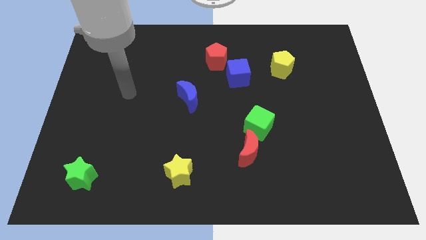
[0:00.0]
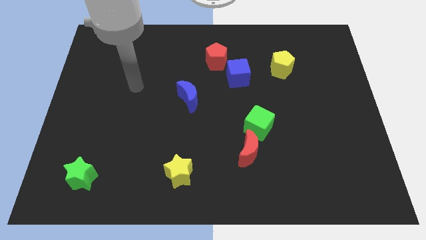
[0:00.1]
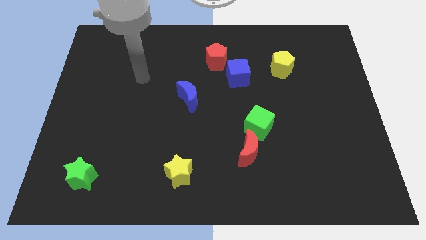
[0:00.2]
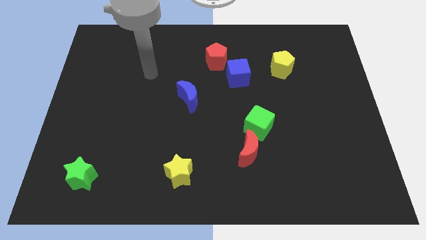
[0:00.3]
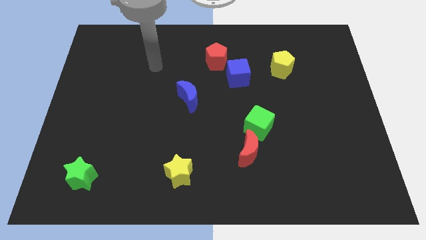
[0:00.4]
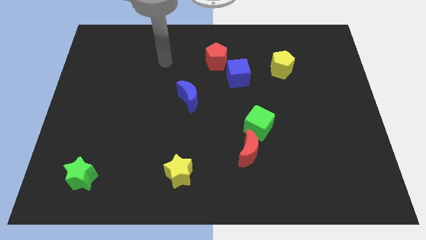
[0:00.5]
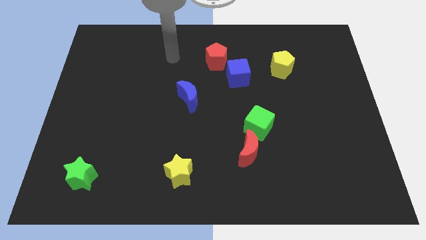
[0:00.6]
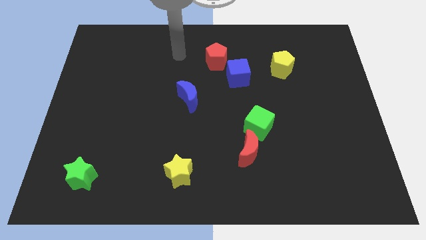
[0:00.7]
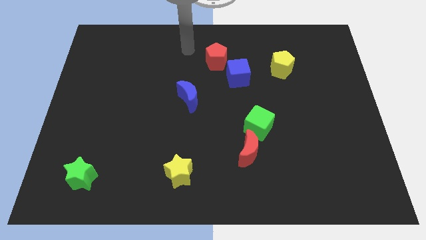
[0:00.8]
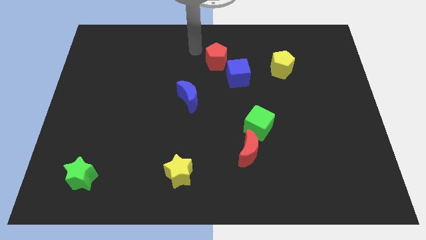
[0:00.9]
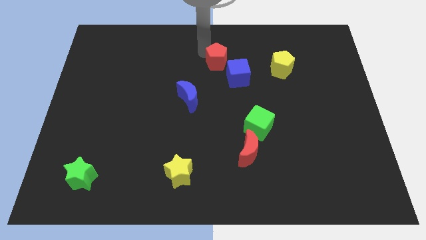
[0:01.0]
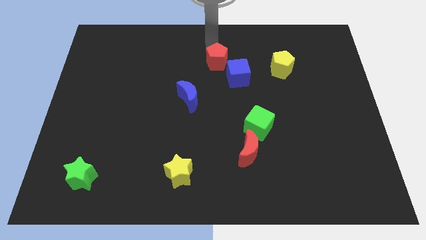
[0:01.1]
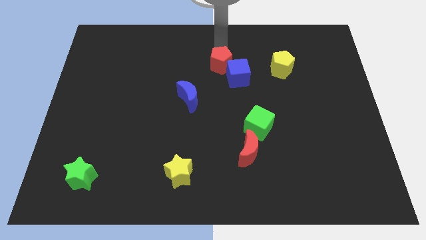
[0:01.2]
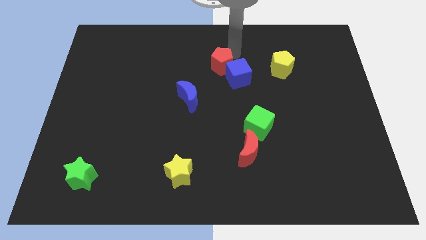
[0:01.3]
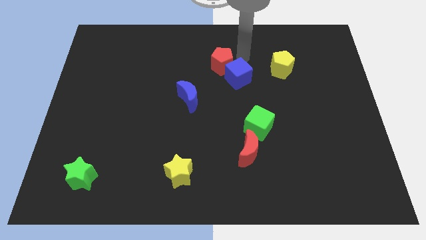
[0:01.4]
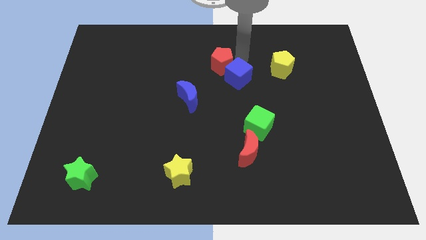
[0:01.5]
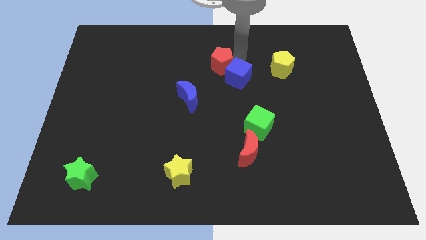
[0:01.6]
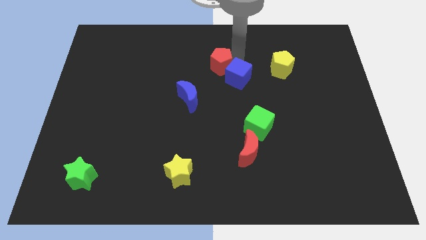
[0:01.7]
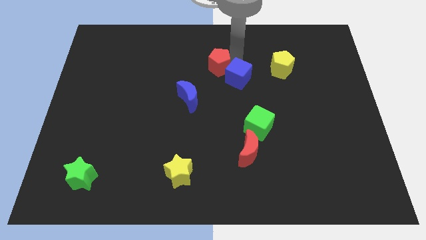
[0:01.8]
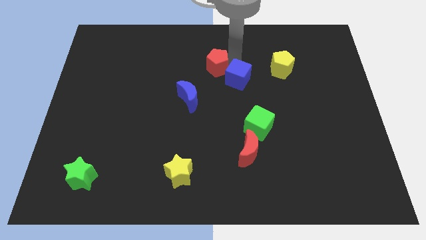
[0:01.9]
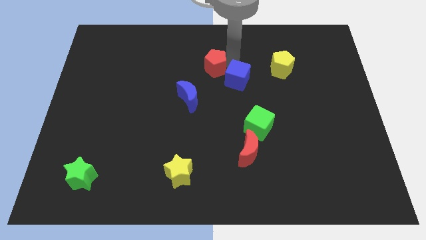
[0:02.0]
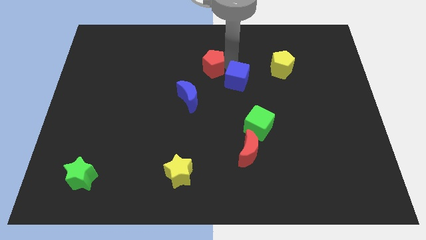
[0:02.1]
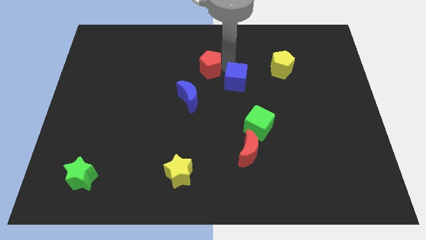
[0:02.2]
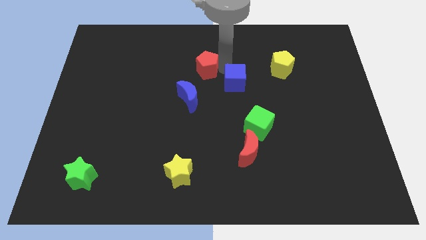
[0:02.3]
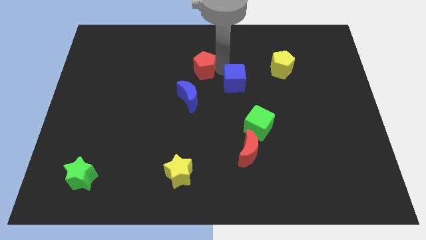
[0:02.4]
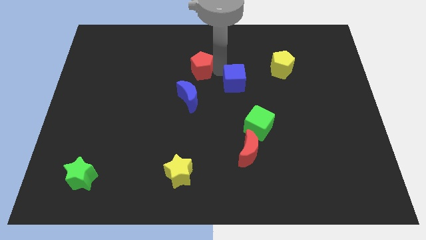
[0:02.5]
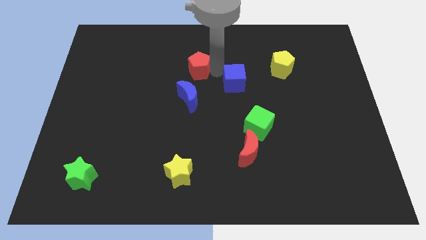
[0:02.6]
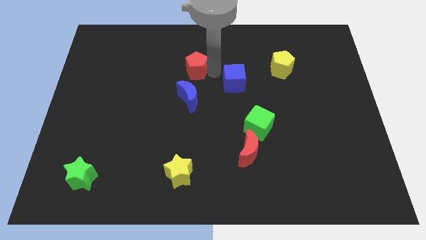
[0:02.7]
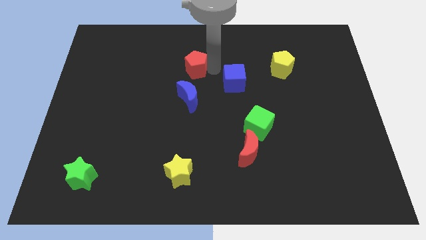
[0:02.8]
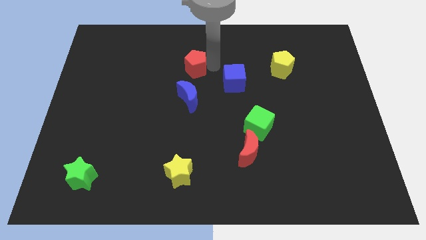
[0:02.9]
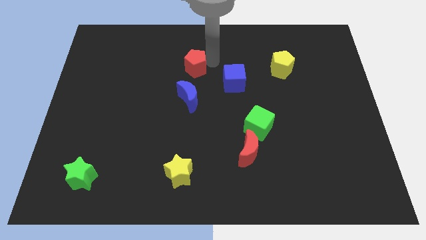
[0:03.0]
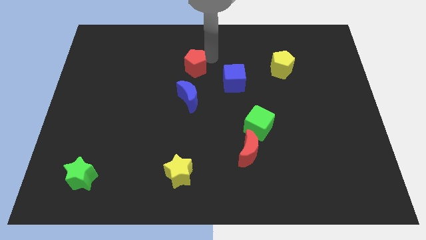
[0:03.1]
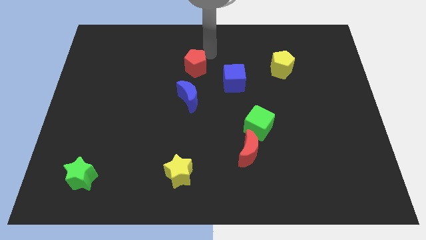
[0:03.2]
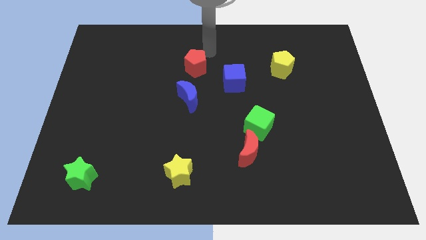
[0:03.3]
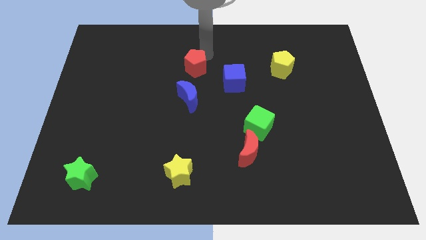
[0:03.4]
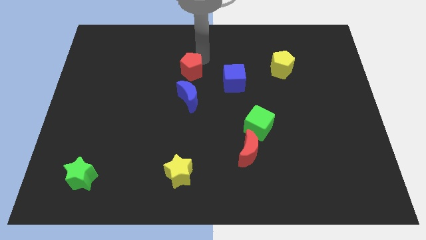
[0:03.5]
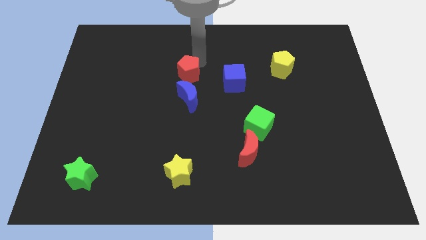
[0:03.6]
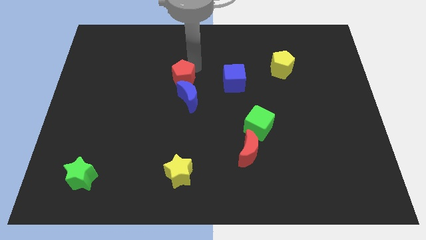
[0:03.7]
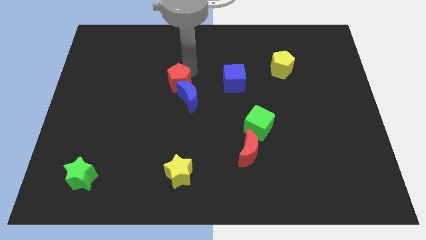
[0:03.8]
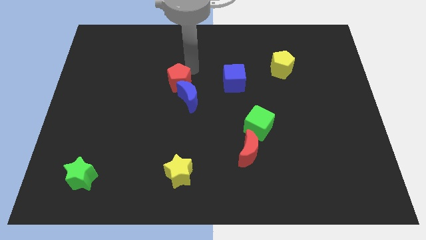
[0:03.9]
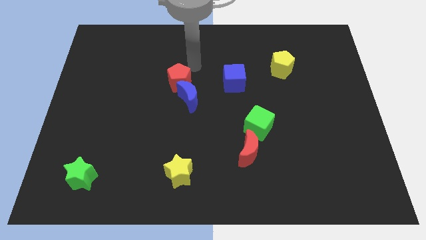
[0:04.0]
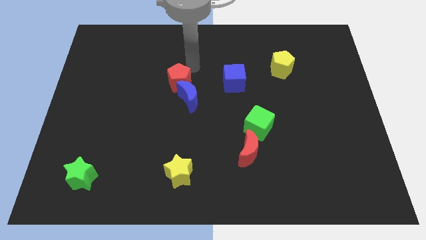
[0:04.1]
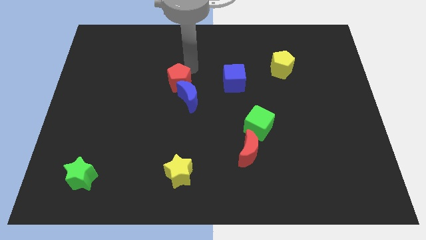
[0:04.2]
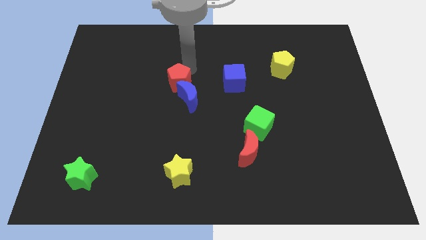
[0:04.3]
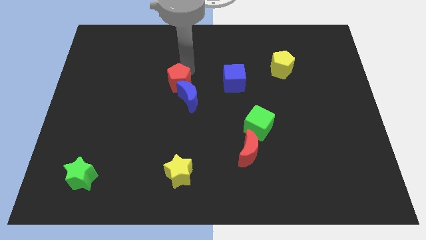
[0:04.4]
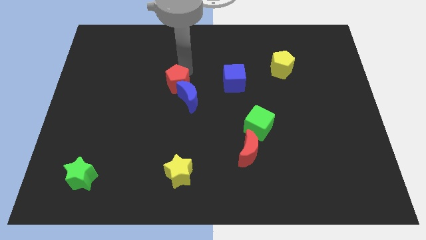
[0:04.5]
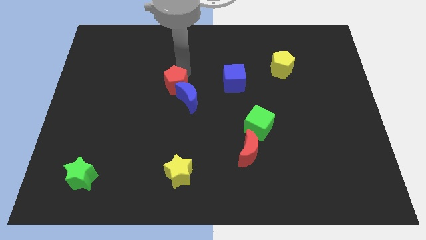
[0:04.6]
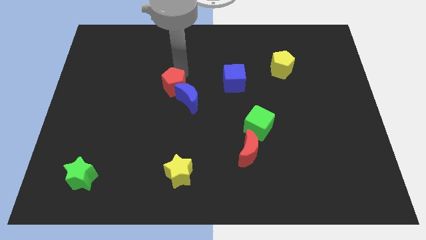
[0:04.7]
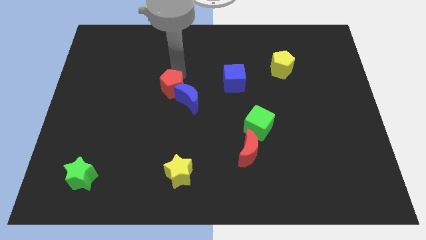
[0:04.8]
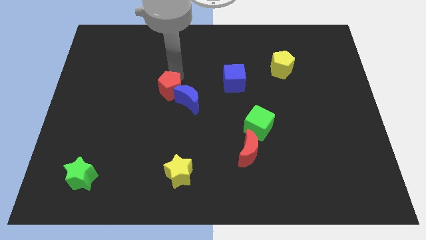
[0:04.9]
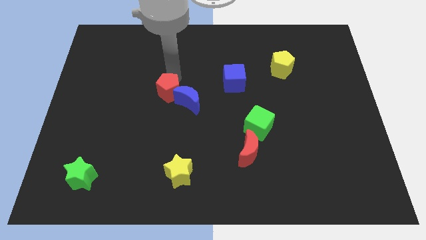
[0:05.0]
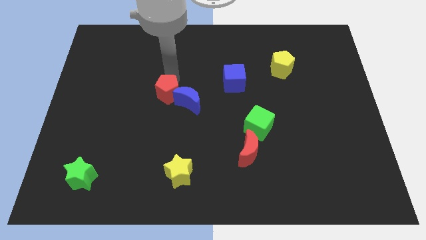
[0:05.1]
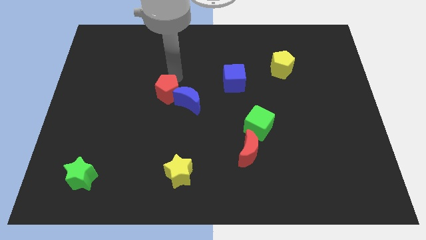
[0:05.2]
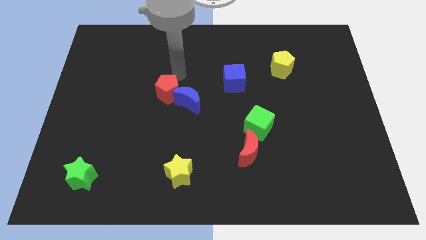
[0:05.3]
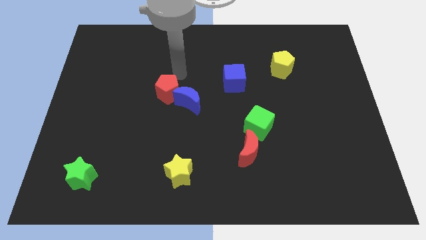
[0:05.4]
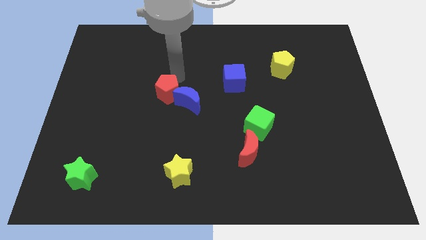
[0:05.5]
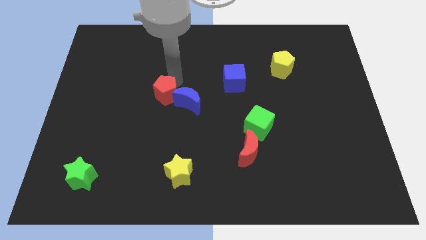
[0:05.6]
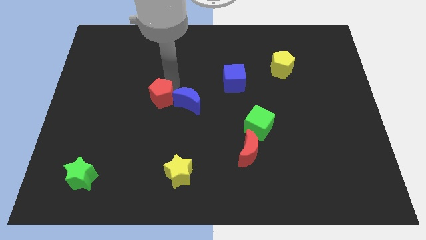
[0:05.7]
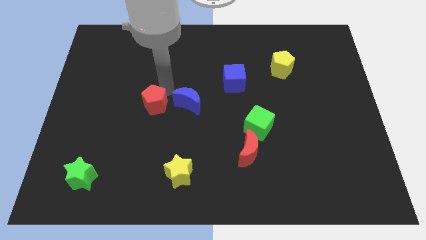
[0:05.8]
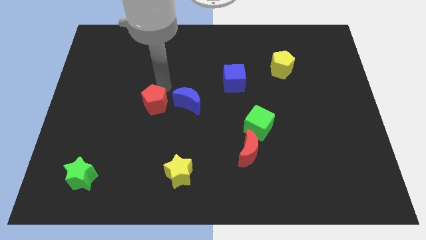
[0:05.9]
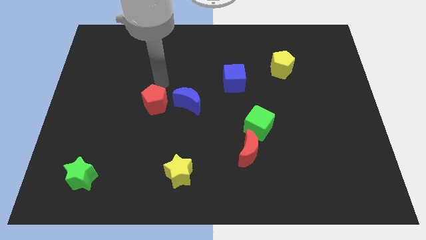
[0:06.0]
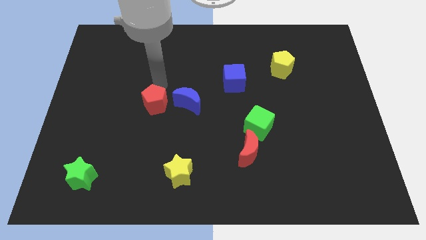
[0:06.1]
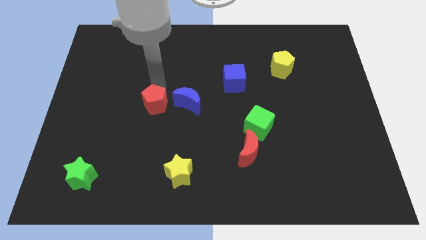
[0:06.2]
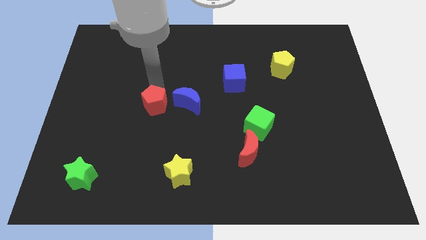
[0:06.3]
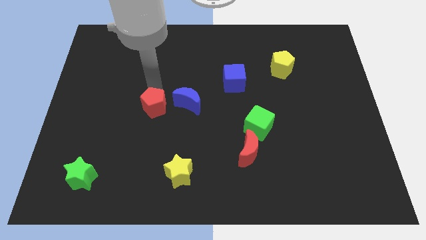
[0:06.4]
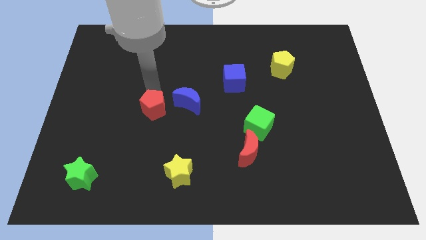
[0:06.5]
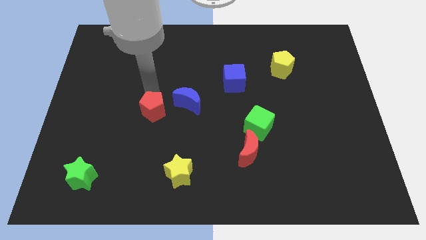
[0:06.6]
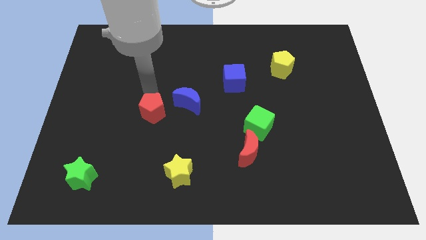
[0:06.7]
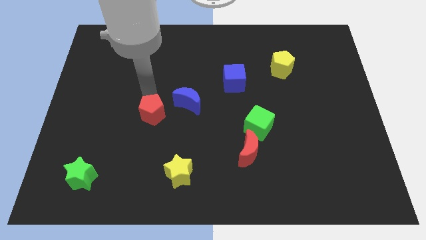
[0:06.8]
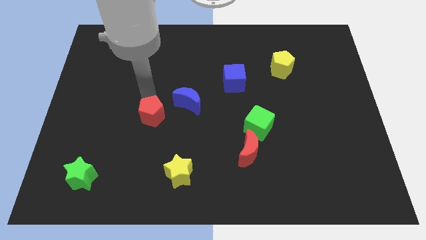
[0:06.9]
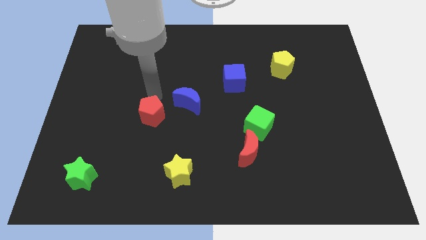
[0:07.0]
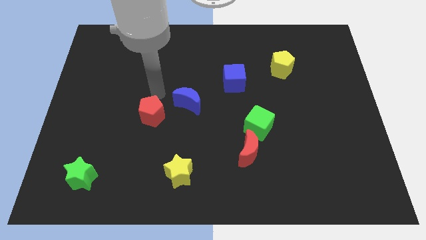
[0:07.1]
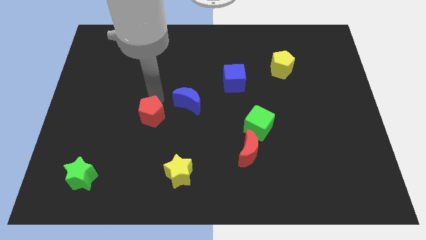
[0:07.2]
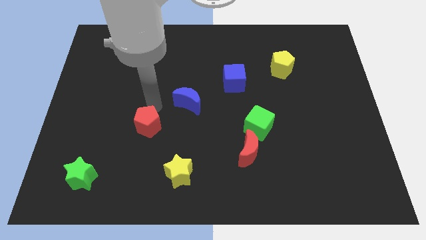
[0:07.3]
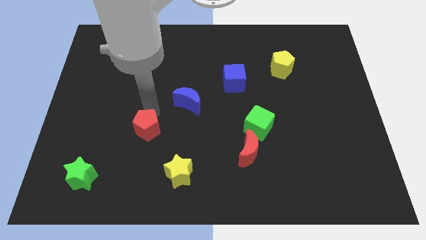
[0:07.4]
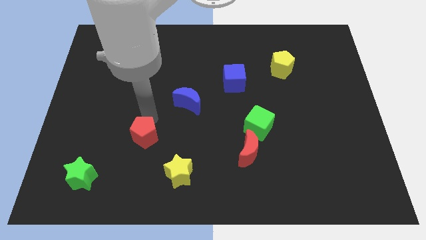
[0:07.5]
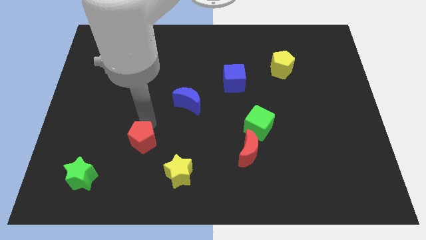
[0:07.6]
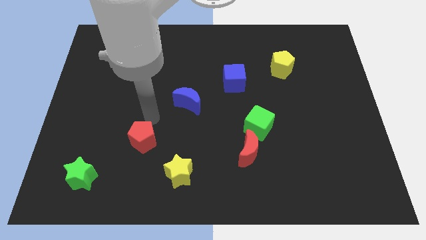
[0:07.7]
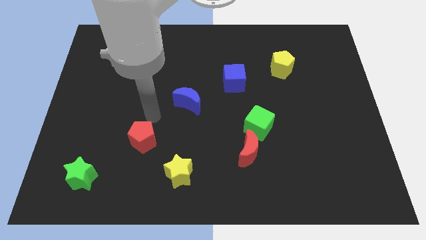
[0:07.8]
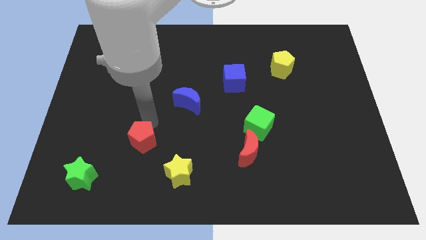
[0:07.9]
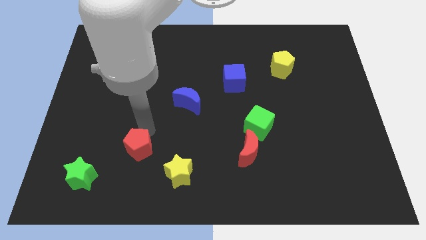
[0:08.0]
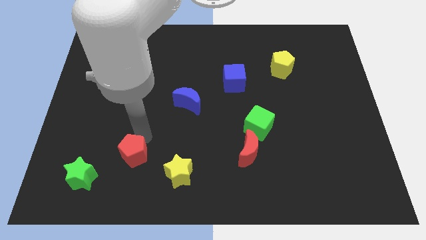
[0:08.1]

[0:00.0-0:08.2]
slide the red pentagon to the left of the yellow star
